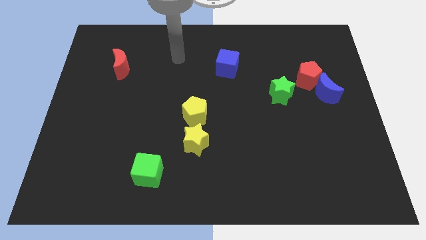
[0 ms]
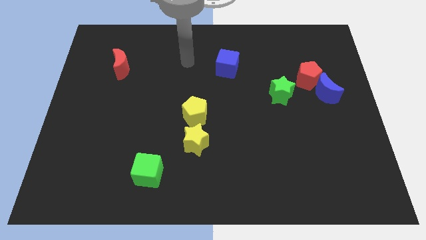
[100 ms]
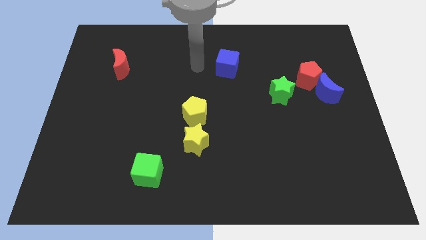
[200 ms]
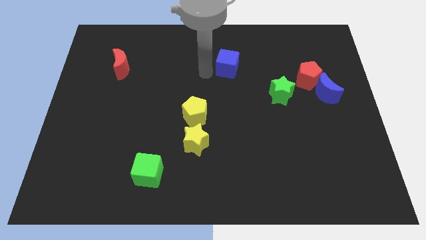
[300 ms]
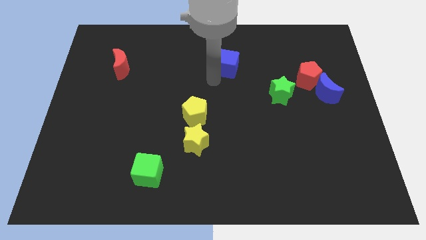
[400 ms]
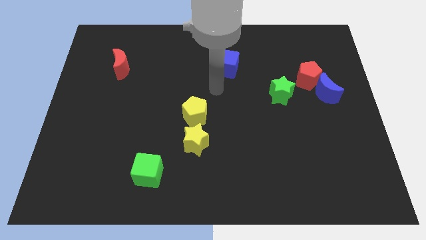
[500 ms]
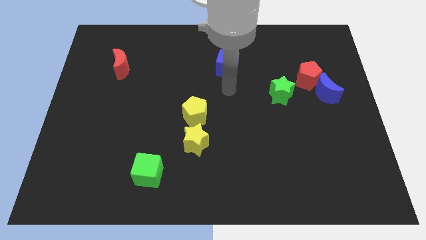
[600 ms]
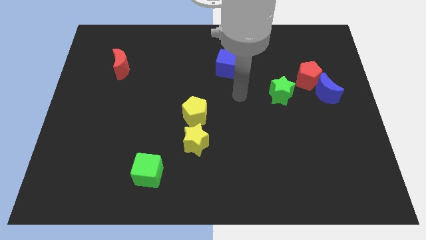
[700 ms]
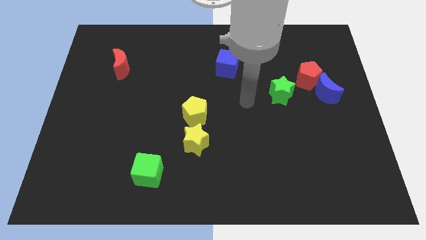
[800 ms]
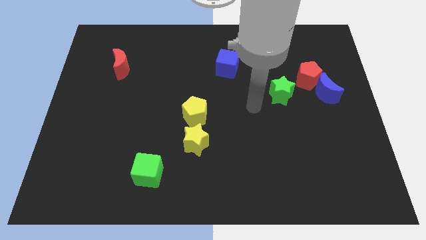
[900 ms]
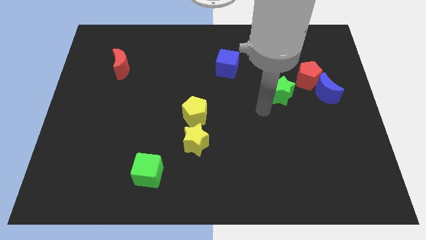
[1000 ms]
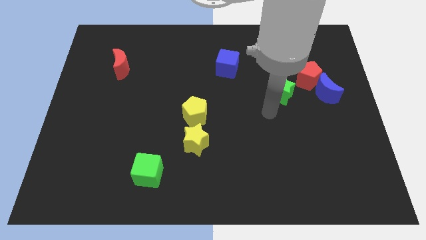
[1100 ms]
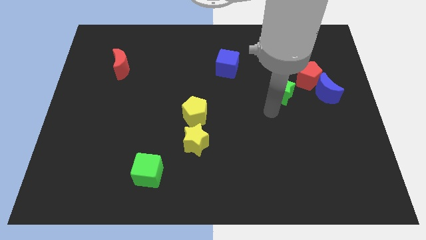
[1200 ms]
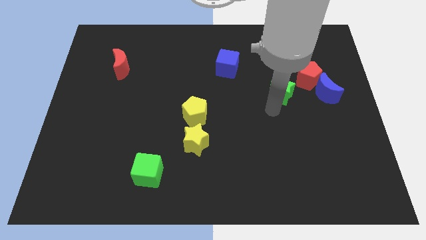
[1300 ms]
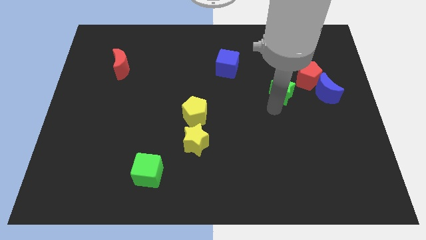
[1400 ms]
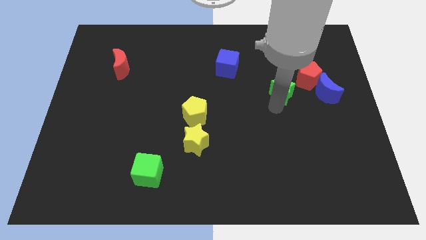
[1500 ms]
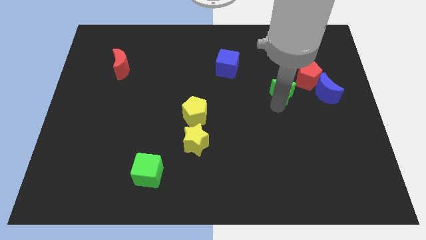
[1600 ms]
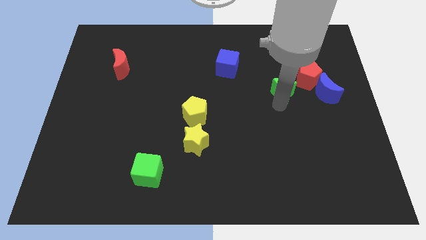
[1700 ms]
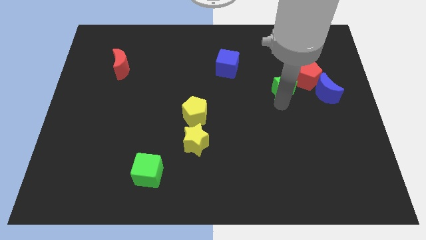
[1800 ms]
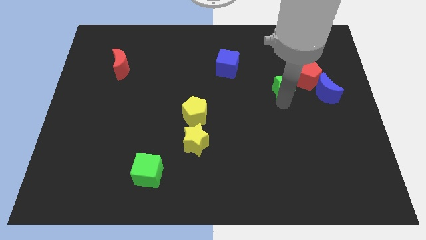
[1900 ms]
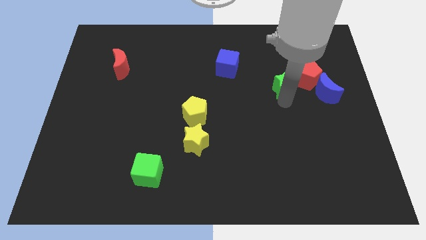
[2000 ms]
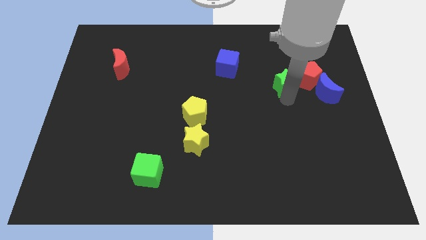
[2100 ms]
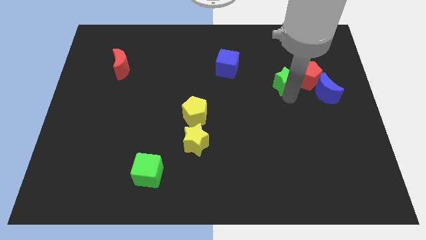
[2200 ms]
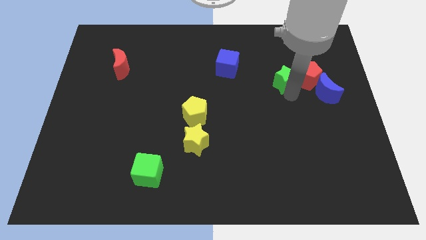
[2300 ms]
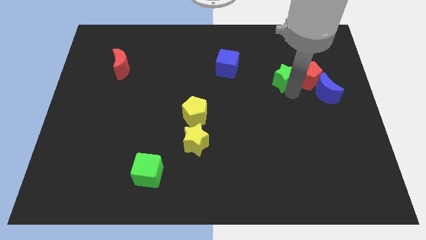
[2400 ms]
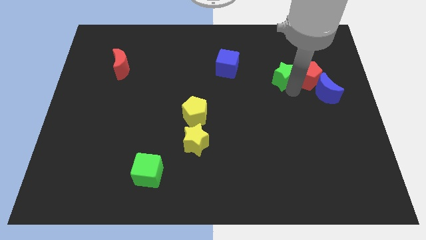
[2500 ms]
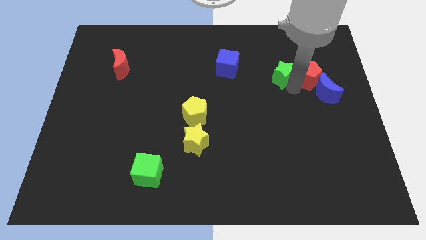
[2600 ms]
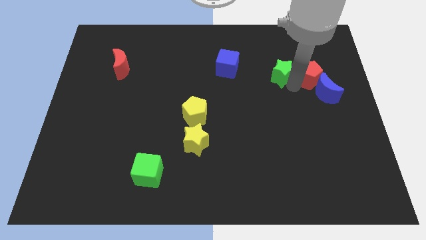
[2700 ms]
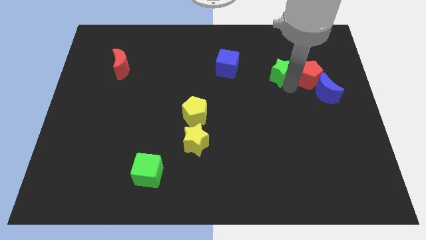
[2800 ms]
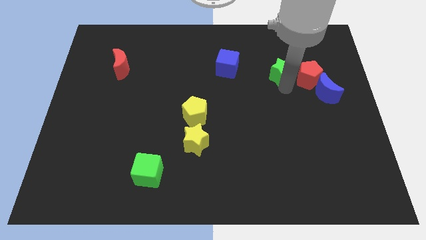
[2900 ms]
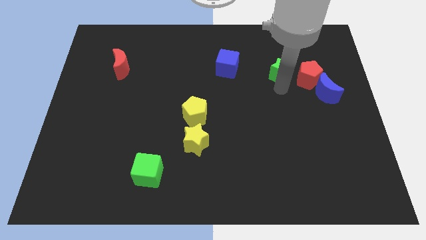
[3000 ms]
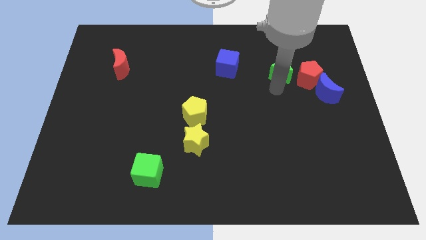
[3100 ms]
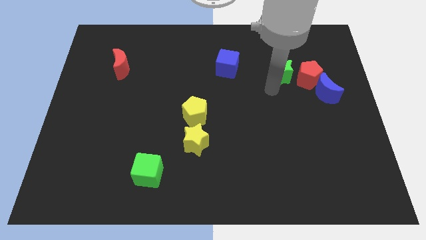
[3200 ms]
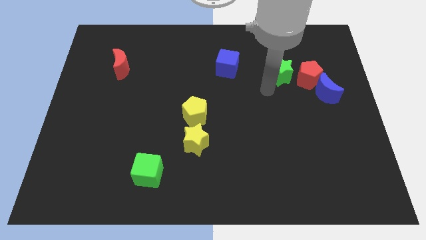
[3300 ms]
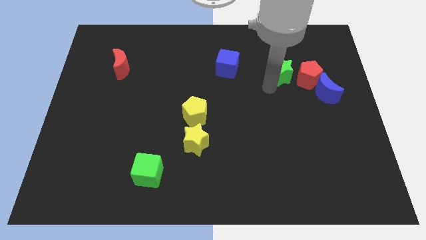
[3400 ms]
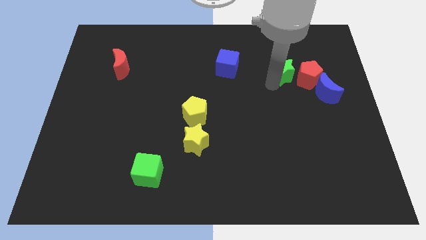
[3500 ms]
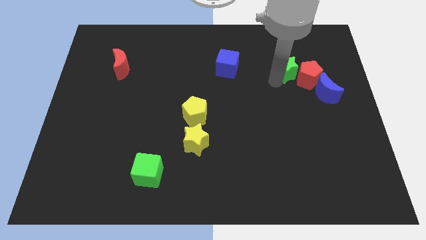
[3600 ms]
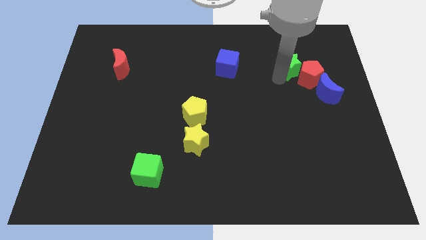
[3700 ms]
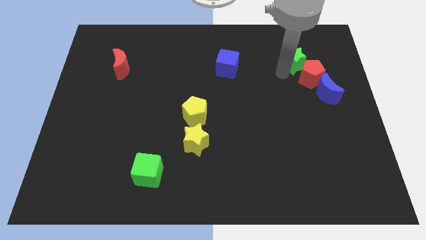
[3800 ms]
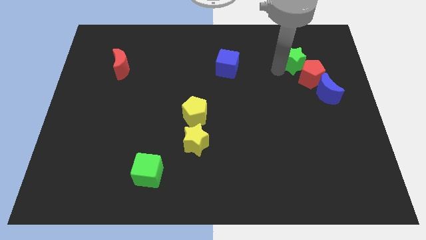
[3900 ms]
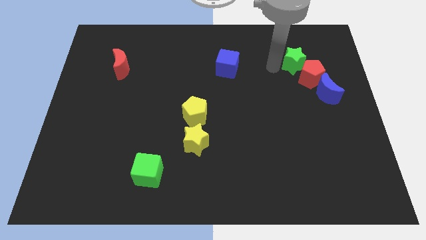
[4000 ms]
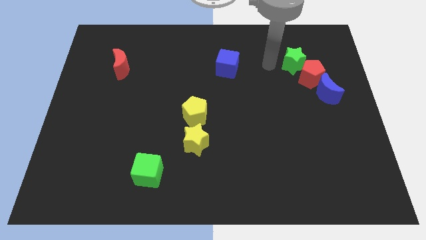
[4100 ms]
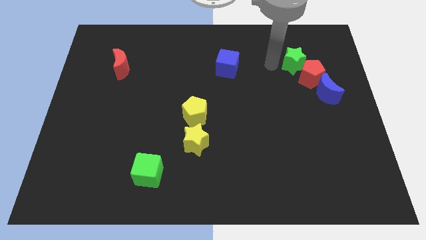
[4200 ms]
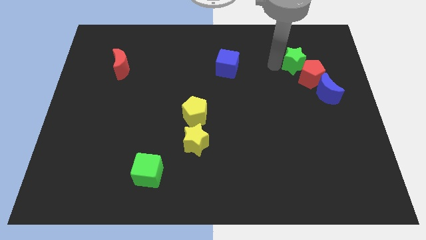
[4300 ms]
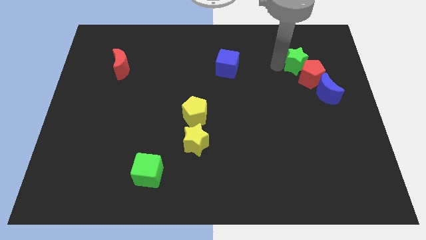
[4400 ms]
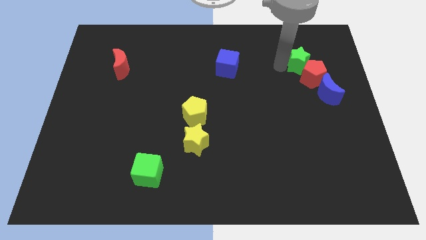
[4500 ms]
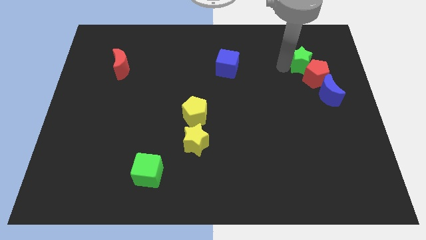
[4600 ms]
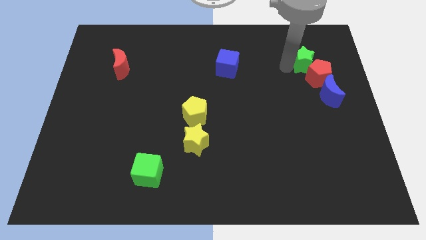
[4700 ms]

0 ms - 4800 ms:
put the green star above the blue moon

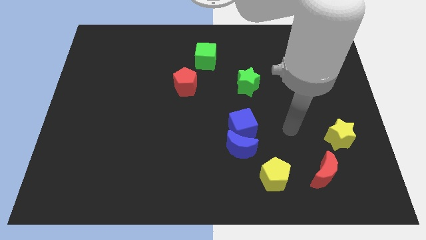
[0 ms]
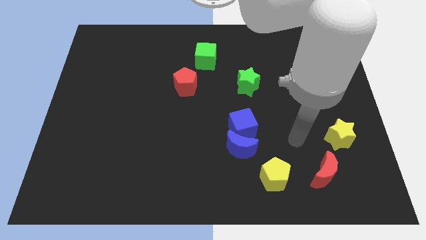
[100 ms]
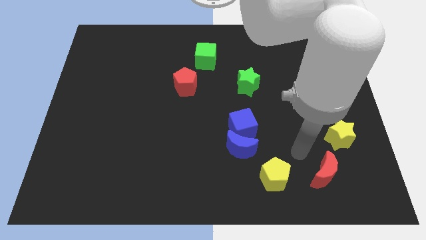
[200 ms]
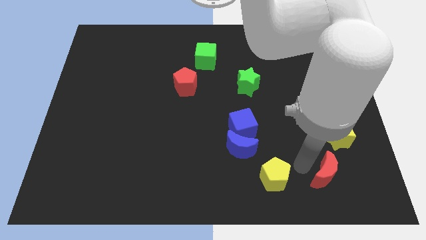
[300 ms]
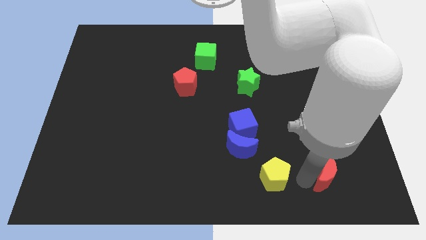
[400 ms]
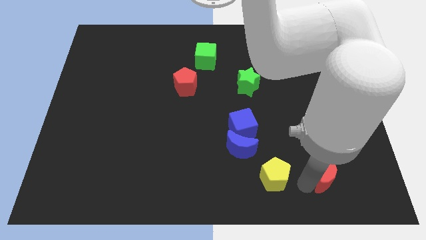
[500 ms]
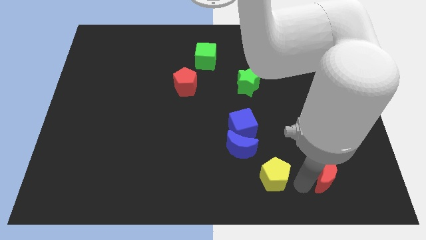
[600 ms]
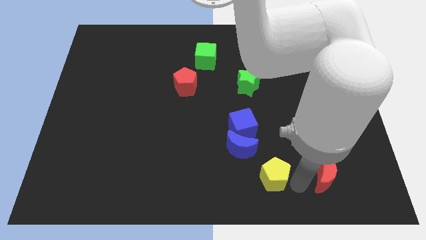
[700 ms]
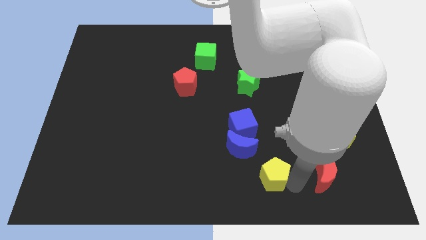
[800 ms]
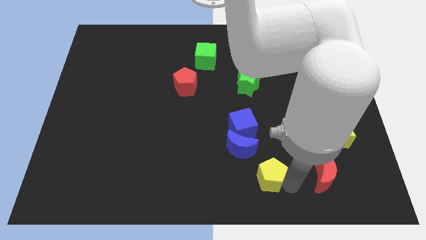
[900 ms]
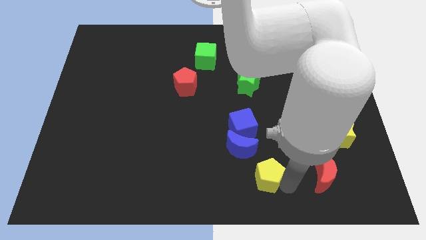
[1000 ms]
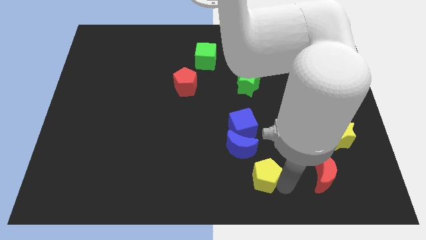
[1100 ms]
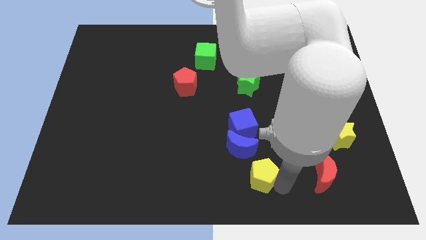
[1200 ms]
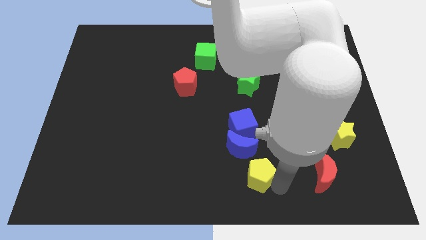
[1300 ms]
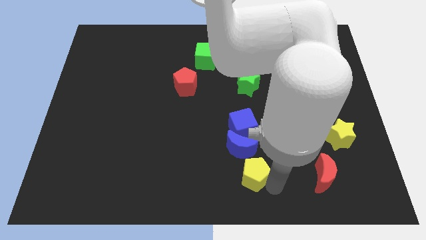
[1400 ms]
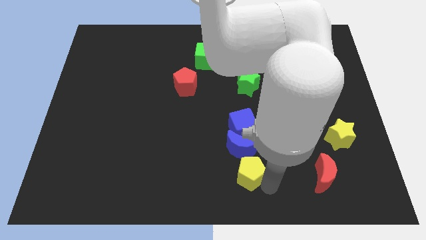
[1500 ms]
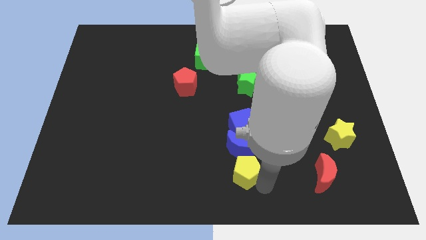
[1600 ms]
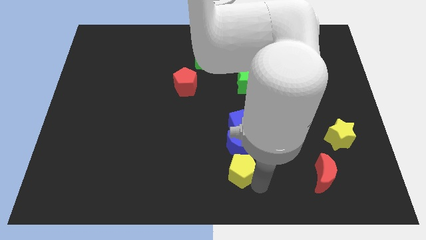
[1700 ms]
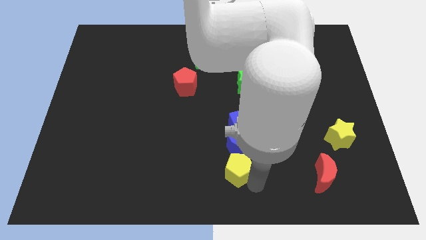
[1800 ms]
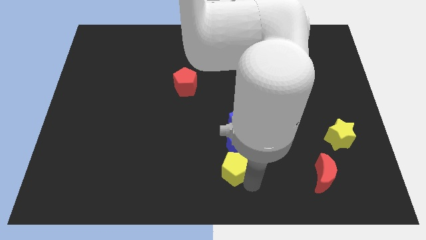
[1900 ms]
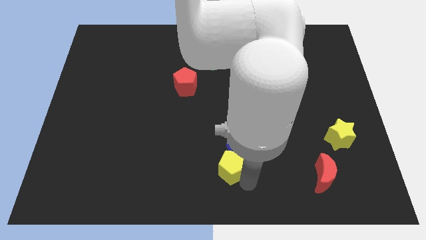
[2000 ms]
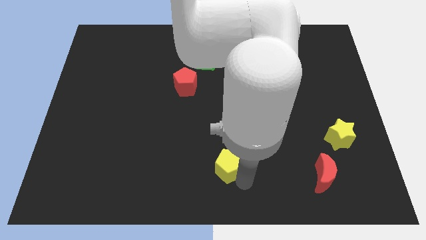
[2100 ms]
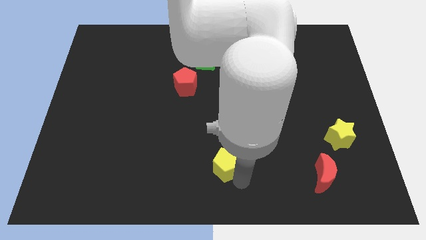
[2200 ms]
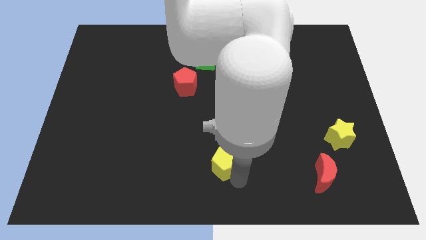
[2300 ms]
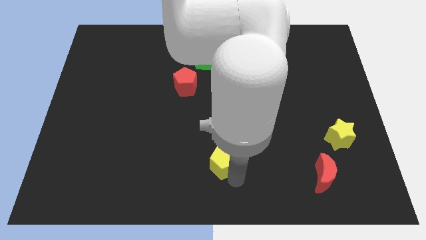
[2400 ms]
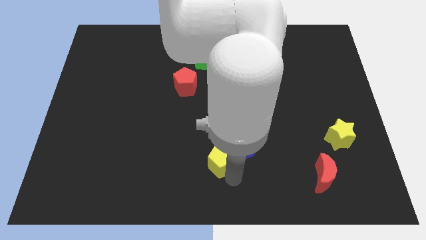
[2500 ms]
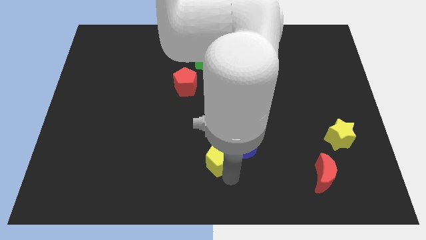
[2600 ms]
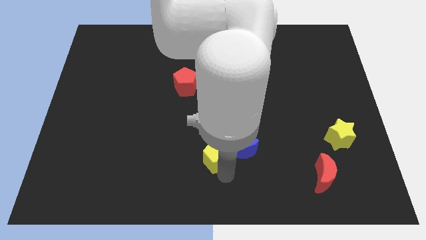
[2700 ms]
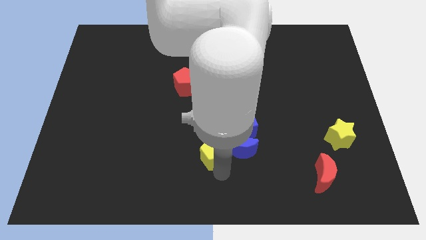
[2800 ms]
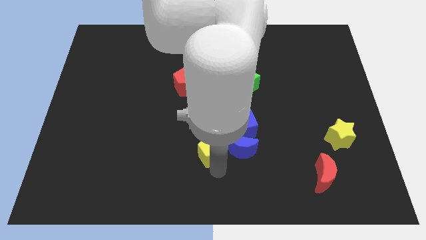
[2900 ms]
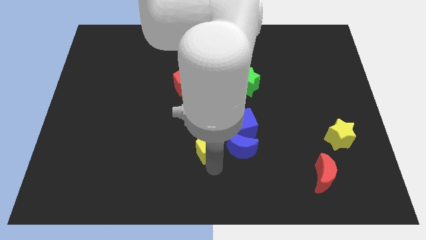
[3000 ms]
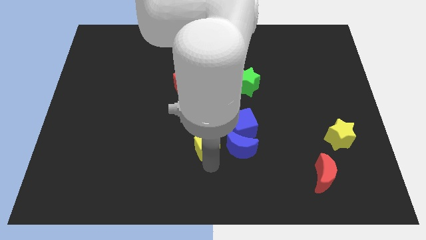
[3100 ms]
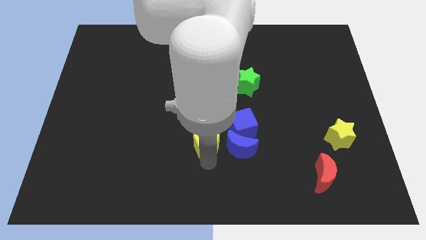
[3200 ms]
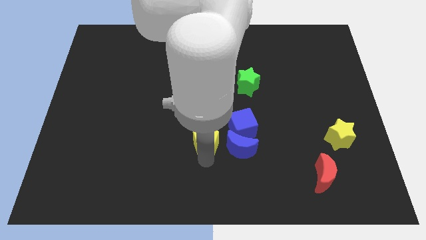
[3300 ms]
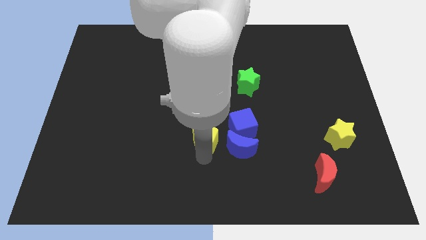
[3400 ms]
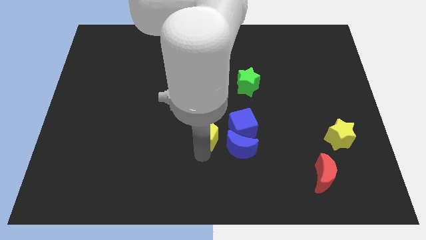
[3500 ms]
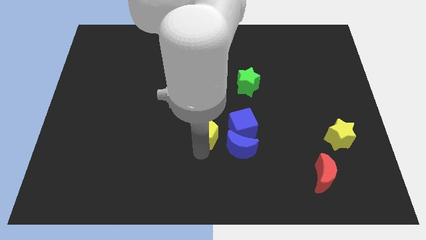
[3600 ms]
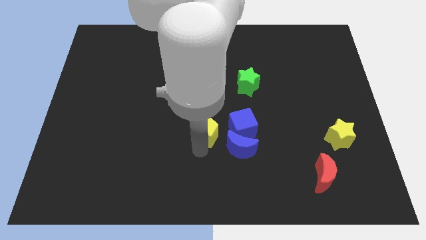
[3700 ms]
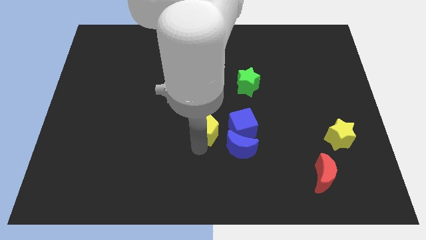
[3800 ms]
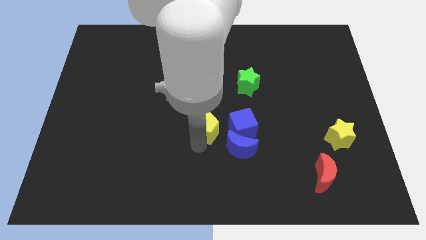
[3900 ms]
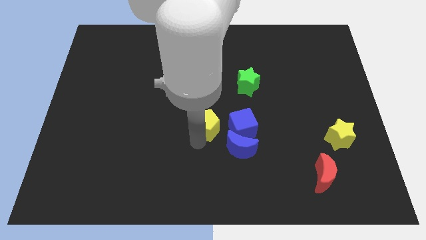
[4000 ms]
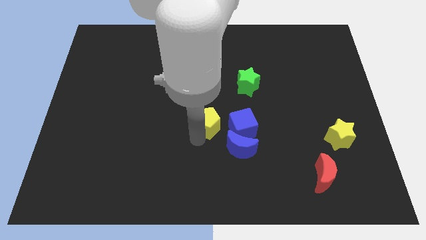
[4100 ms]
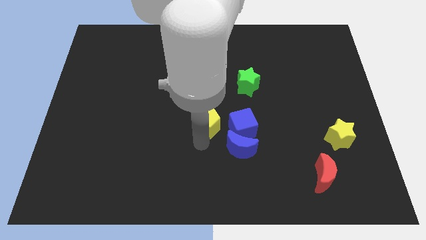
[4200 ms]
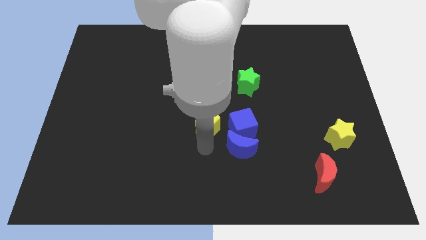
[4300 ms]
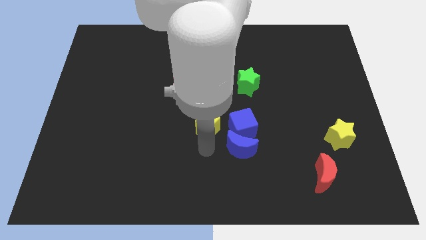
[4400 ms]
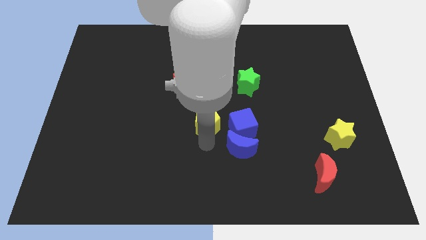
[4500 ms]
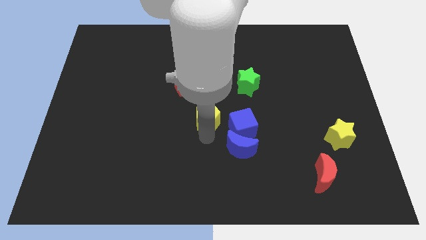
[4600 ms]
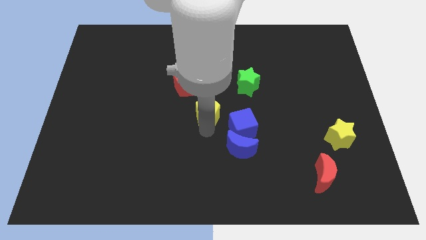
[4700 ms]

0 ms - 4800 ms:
move the yellow pentagon to the bottom right side of the red pentagon
